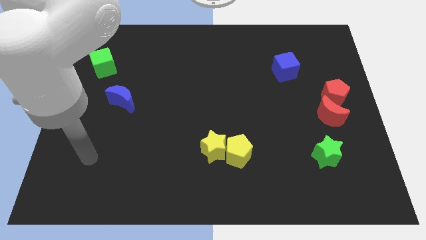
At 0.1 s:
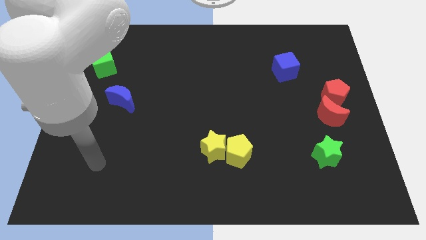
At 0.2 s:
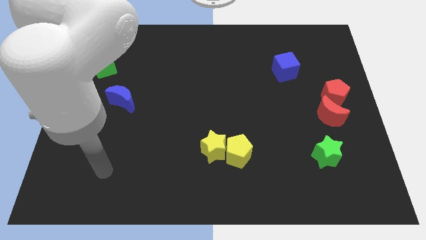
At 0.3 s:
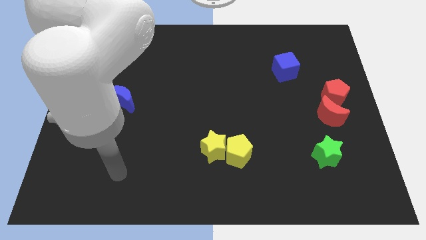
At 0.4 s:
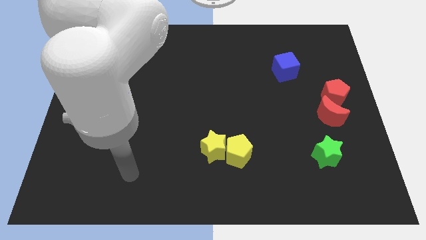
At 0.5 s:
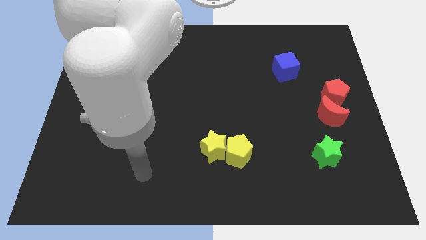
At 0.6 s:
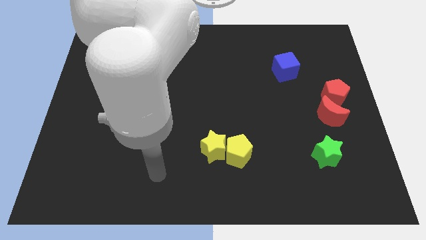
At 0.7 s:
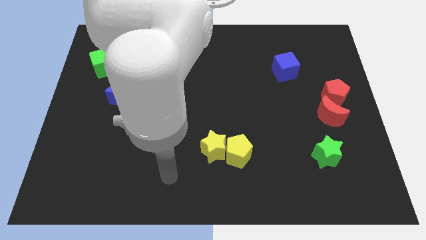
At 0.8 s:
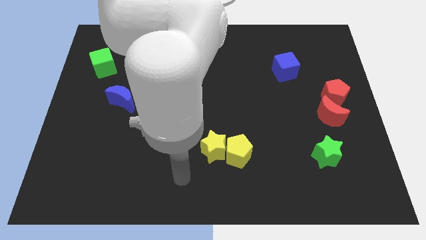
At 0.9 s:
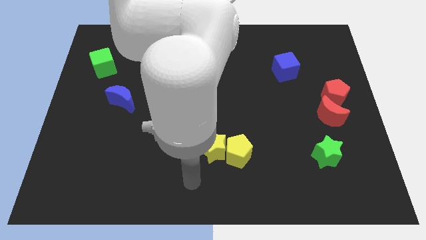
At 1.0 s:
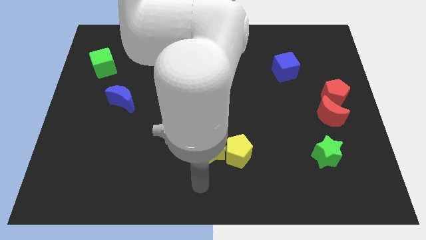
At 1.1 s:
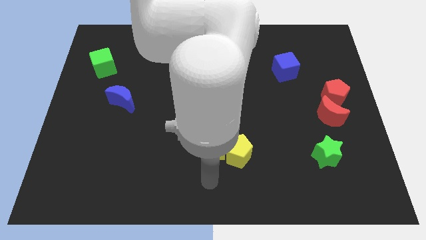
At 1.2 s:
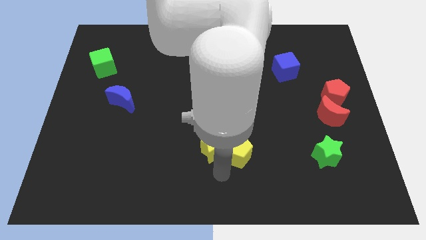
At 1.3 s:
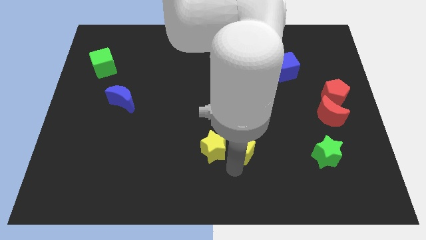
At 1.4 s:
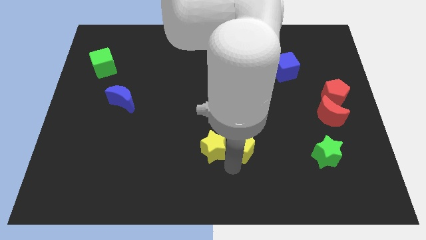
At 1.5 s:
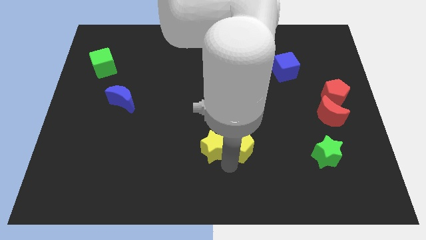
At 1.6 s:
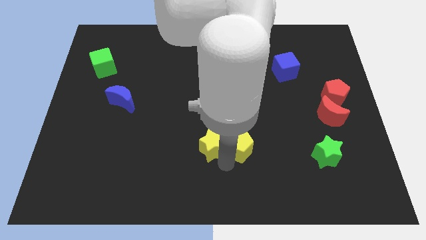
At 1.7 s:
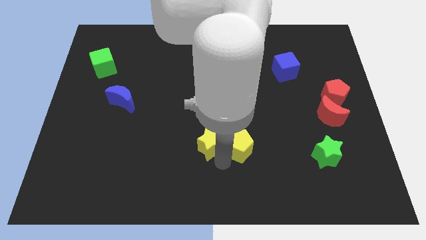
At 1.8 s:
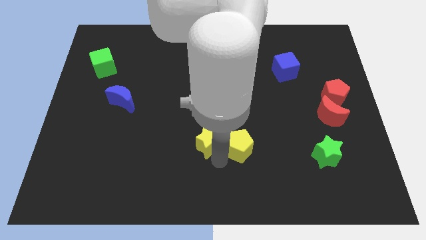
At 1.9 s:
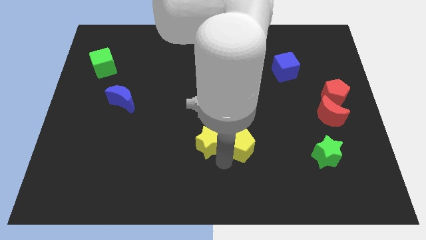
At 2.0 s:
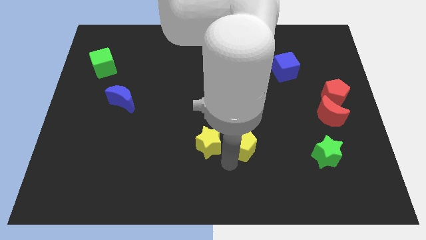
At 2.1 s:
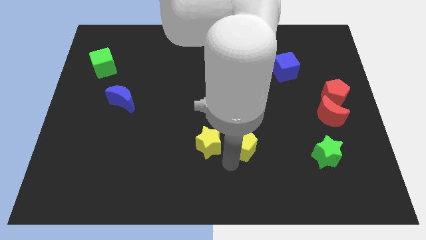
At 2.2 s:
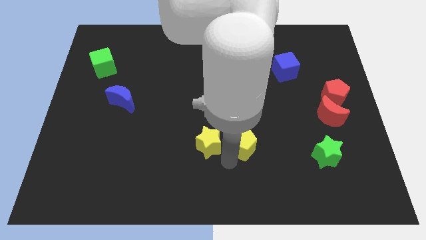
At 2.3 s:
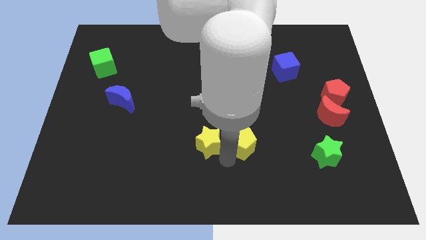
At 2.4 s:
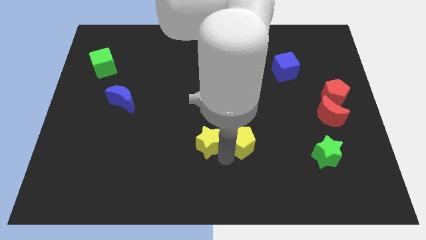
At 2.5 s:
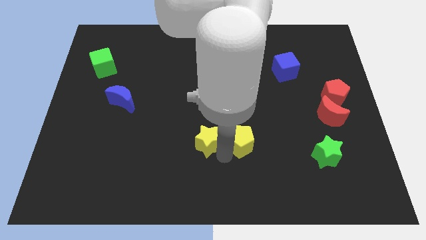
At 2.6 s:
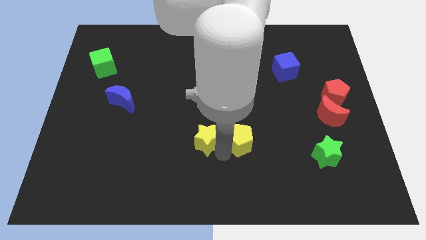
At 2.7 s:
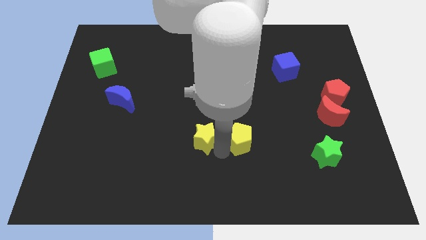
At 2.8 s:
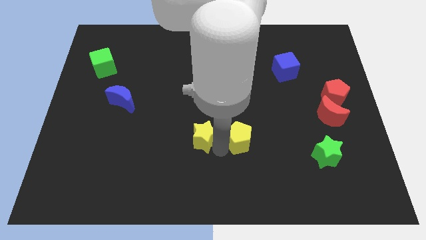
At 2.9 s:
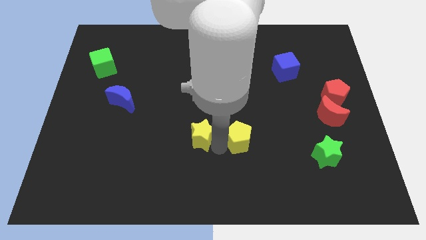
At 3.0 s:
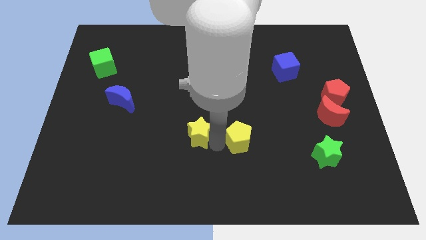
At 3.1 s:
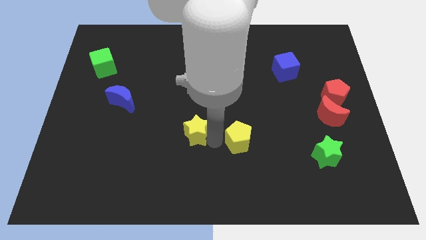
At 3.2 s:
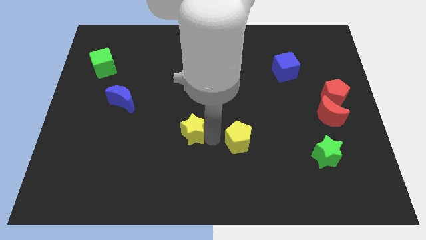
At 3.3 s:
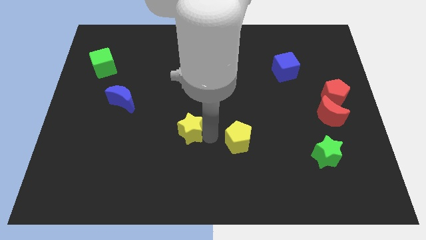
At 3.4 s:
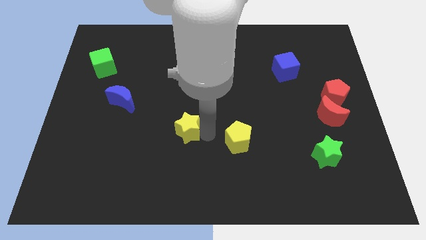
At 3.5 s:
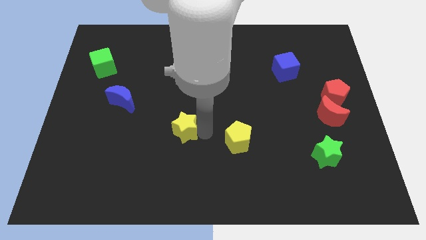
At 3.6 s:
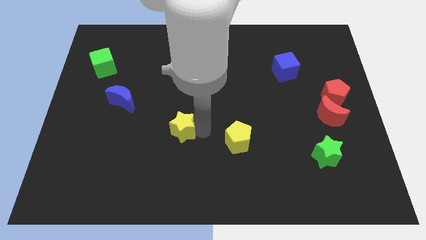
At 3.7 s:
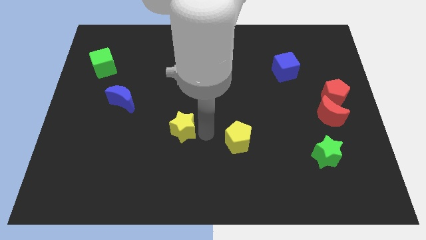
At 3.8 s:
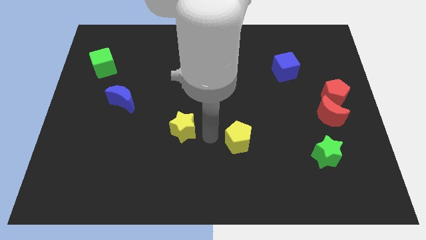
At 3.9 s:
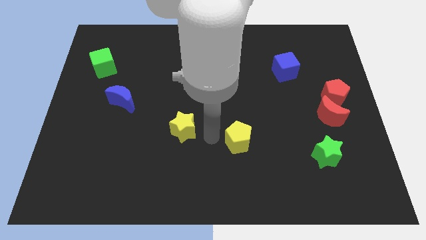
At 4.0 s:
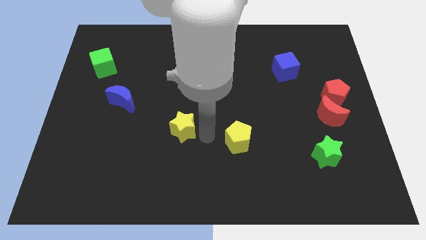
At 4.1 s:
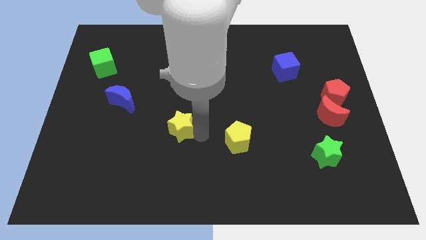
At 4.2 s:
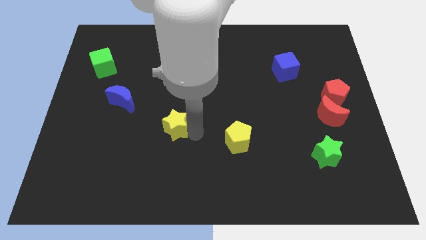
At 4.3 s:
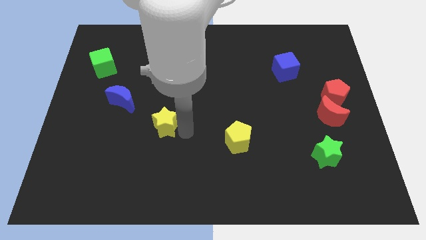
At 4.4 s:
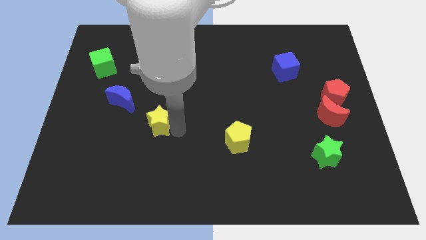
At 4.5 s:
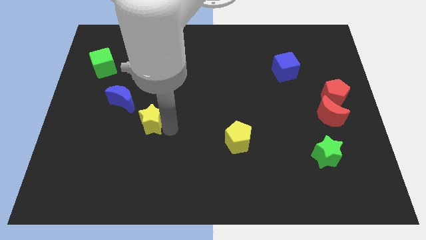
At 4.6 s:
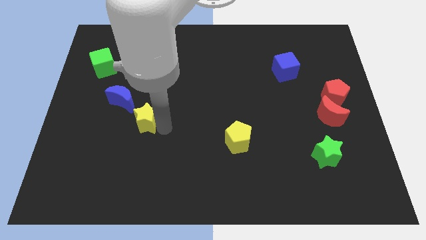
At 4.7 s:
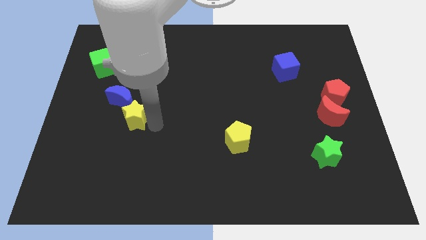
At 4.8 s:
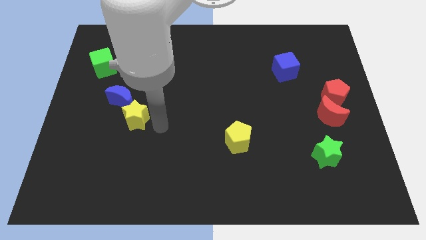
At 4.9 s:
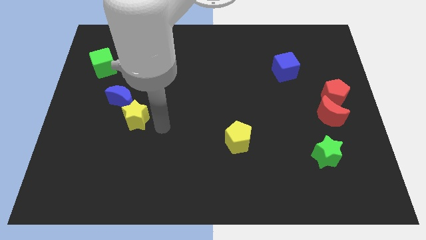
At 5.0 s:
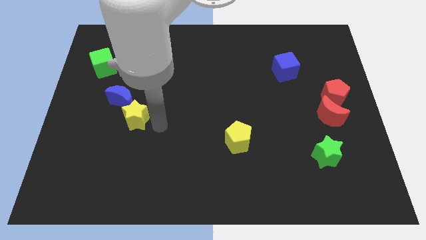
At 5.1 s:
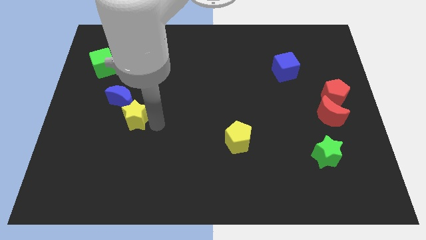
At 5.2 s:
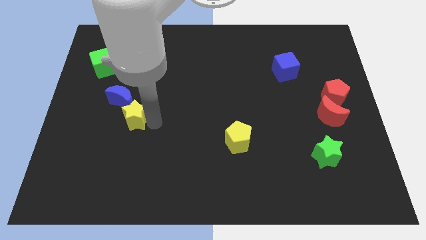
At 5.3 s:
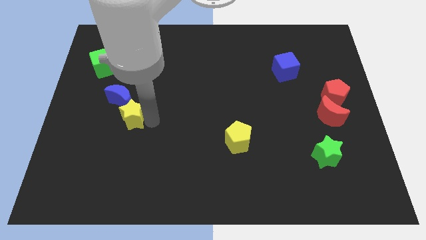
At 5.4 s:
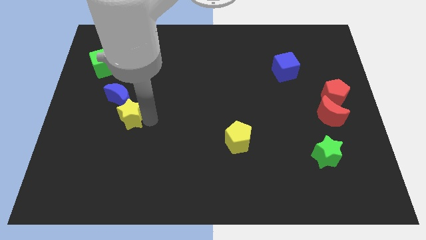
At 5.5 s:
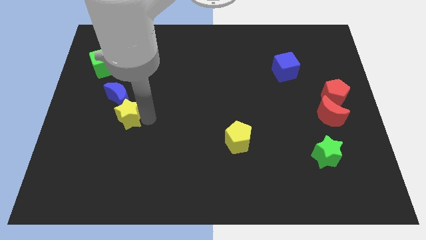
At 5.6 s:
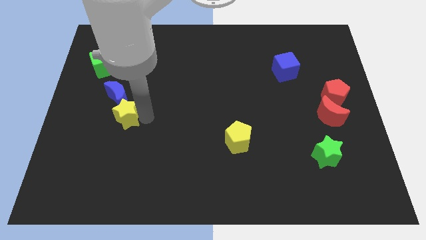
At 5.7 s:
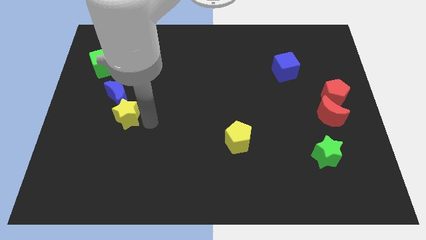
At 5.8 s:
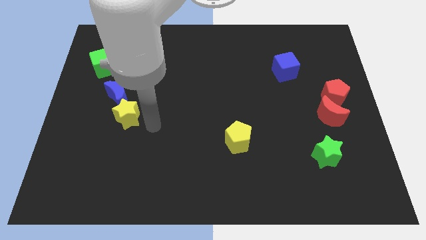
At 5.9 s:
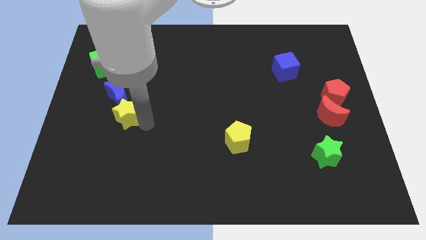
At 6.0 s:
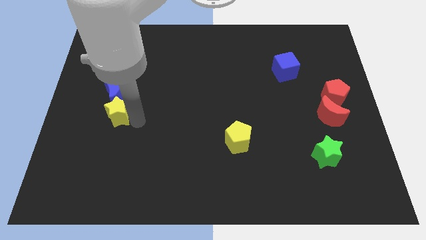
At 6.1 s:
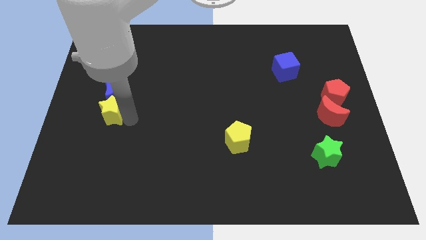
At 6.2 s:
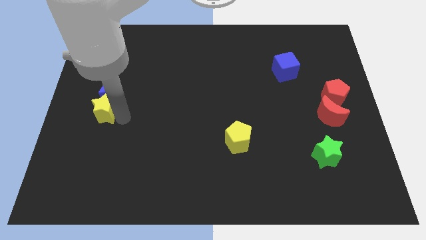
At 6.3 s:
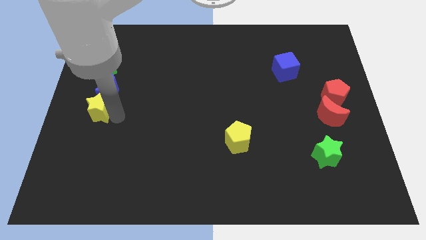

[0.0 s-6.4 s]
slide the yellow star to the left side
